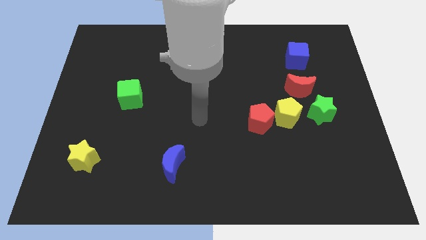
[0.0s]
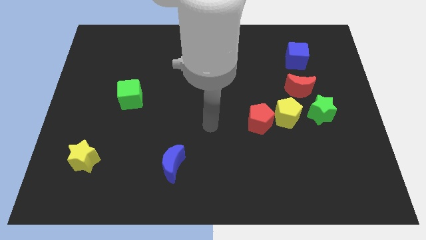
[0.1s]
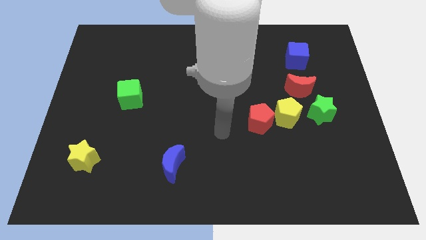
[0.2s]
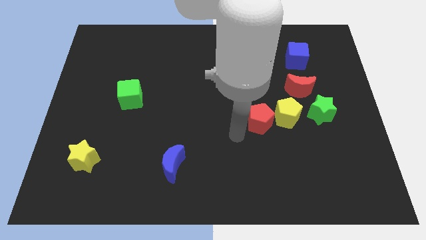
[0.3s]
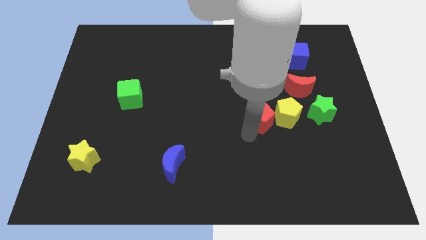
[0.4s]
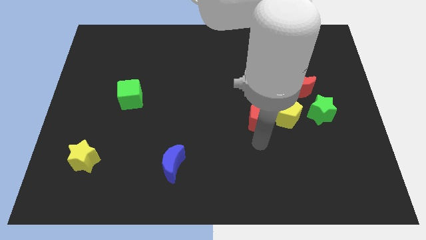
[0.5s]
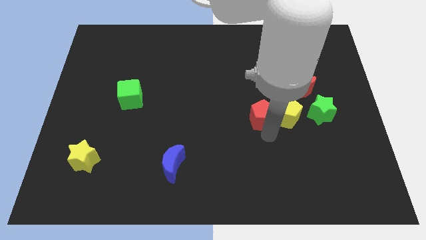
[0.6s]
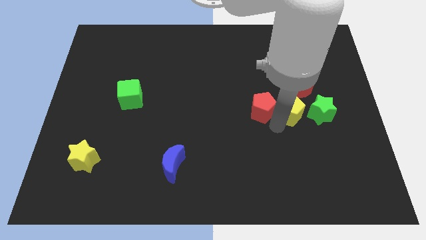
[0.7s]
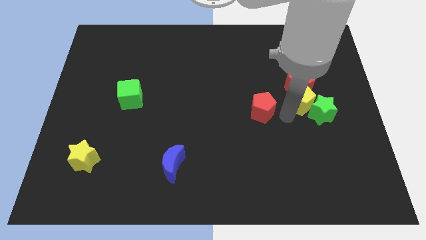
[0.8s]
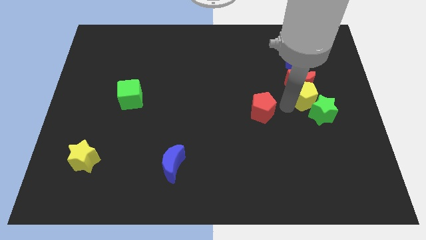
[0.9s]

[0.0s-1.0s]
move the red pentagon away from the yellow pentagon

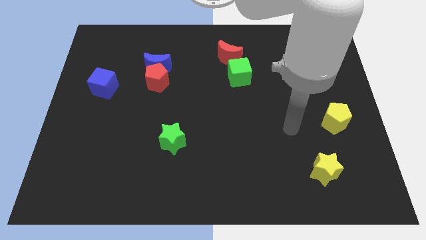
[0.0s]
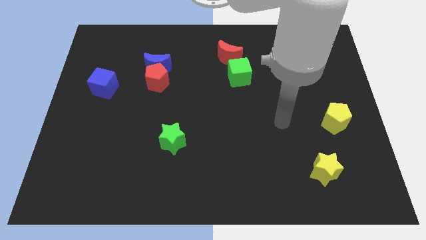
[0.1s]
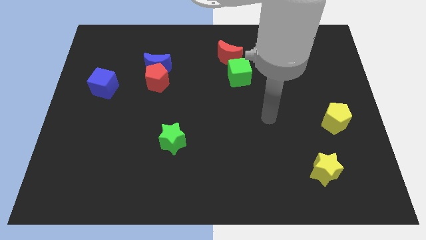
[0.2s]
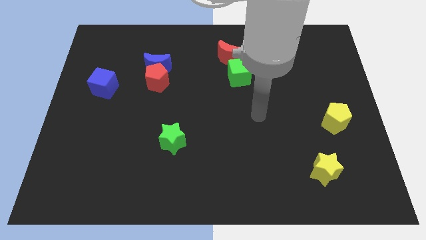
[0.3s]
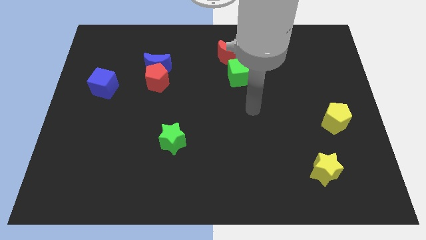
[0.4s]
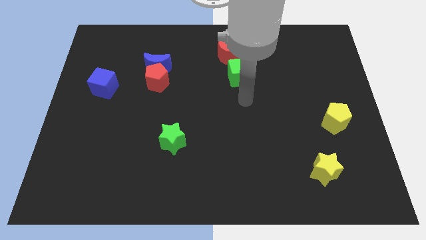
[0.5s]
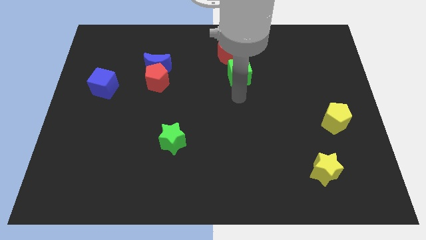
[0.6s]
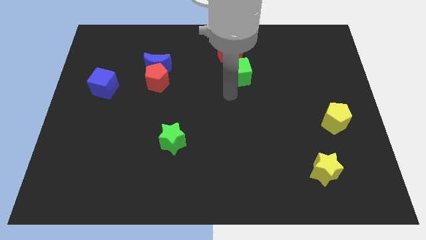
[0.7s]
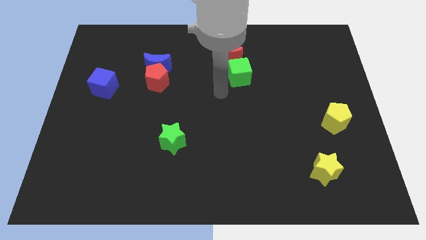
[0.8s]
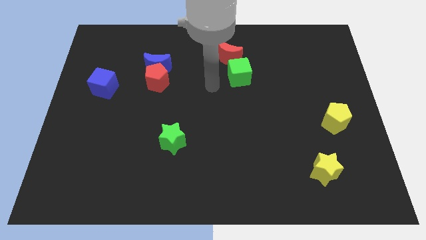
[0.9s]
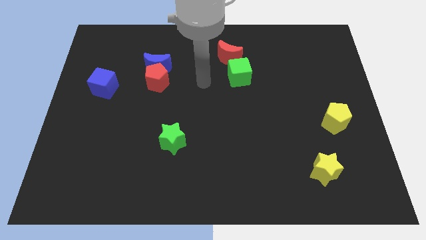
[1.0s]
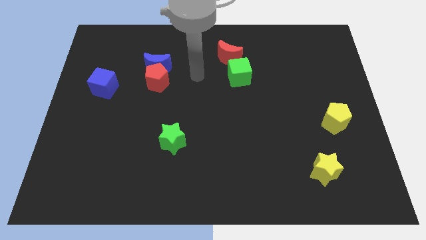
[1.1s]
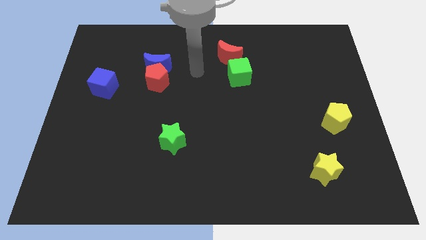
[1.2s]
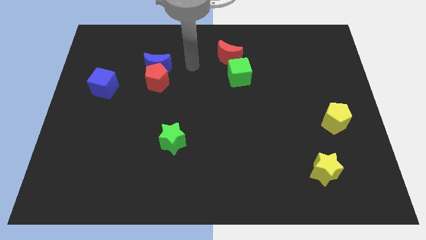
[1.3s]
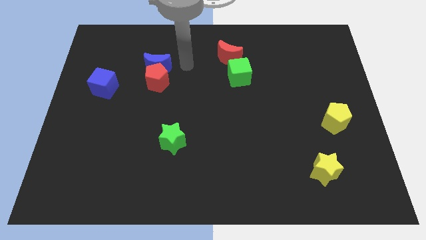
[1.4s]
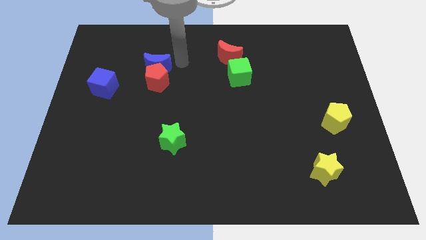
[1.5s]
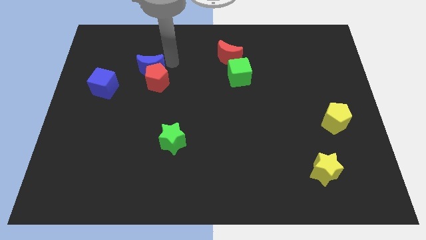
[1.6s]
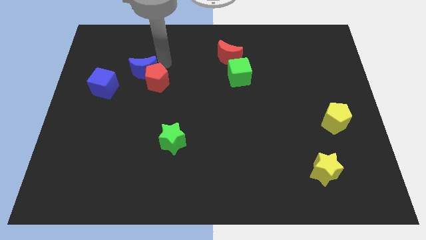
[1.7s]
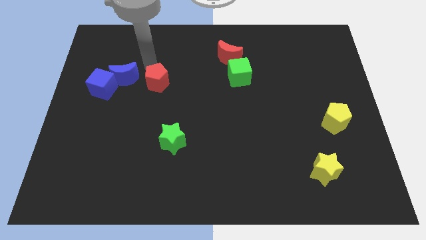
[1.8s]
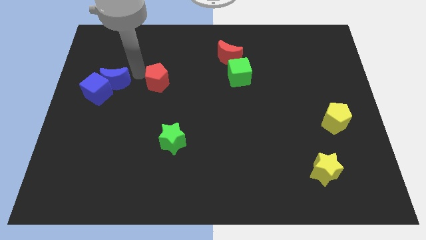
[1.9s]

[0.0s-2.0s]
pull the red pentagon apart from the blue moon

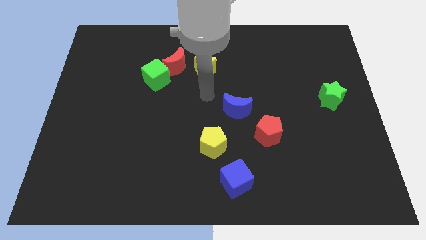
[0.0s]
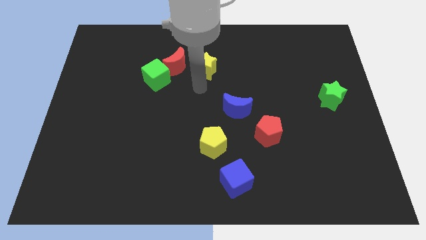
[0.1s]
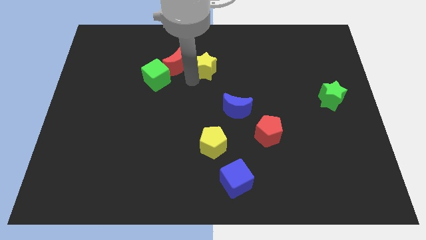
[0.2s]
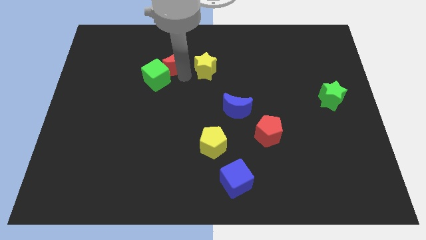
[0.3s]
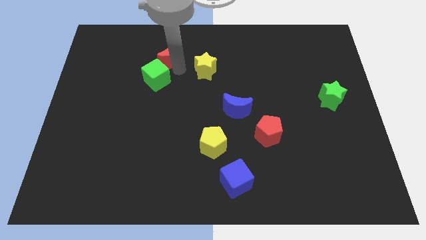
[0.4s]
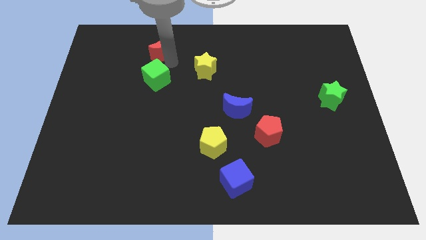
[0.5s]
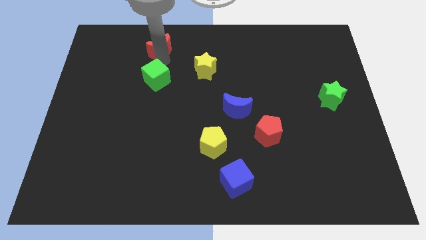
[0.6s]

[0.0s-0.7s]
separate the green cube from the red moon

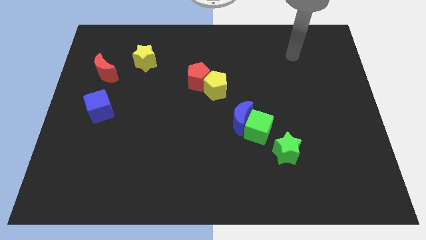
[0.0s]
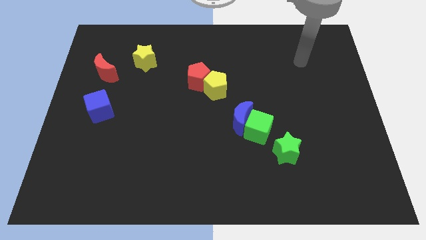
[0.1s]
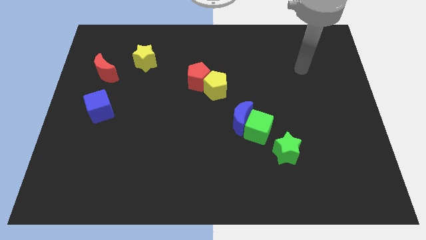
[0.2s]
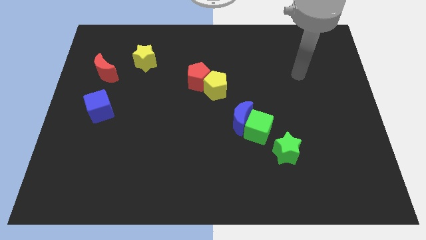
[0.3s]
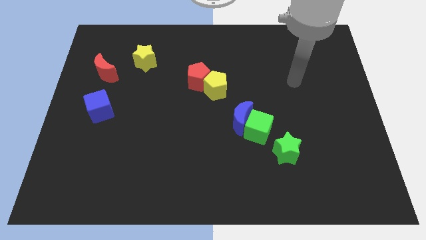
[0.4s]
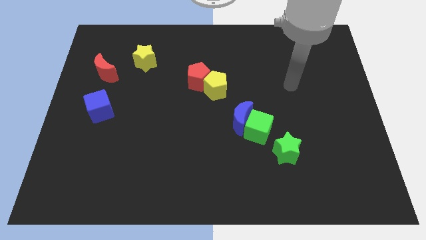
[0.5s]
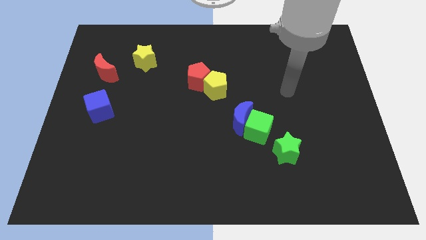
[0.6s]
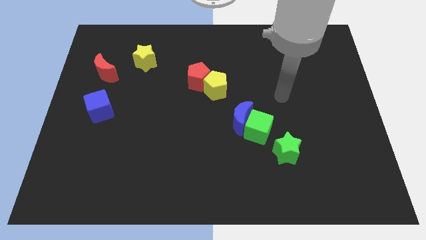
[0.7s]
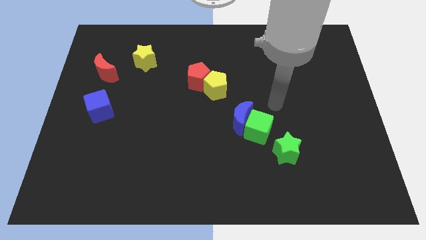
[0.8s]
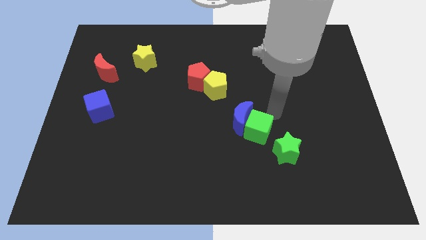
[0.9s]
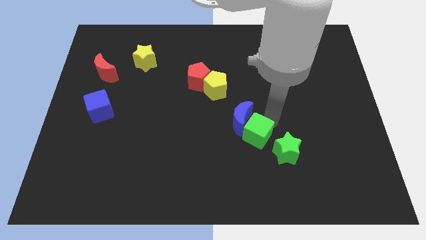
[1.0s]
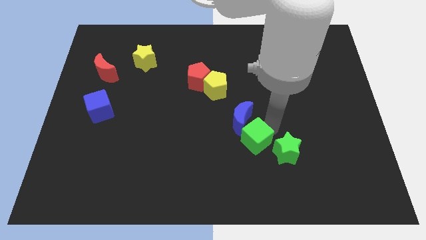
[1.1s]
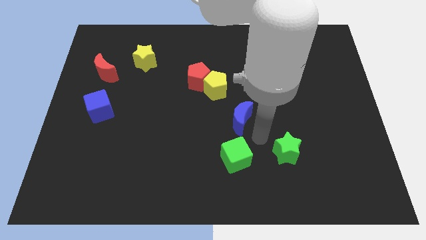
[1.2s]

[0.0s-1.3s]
separate the blue moon from the green cube

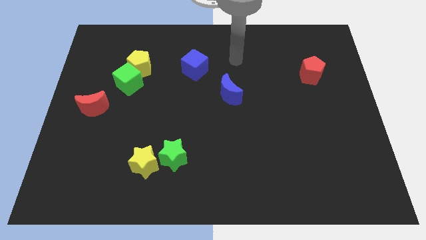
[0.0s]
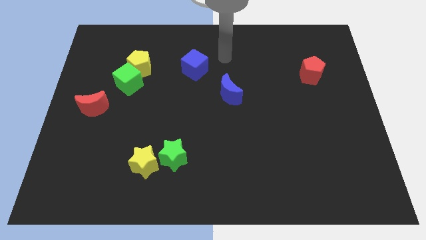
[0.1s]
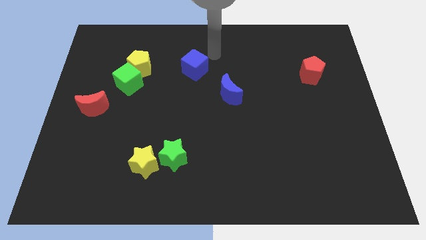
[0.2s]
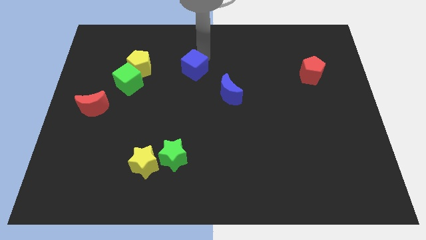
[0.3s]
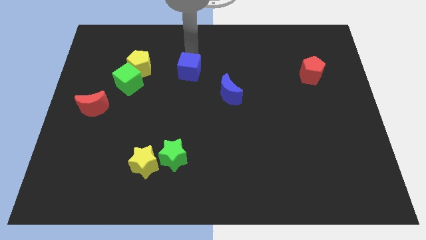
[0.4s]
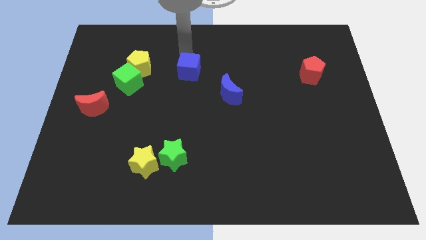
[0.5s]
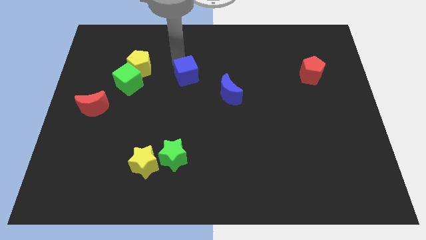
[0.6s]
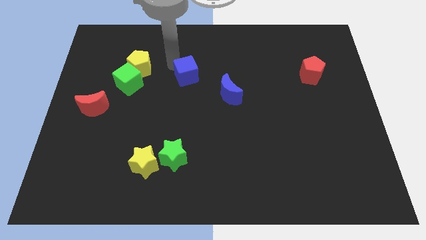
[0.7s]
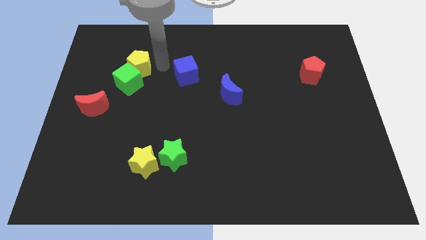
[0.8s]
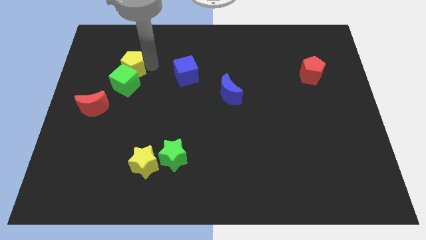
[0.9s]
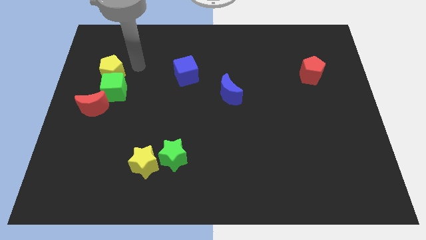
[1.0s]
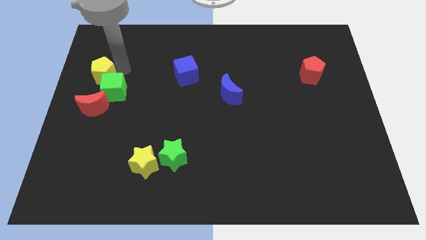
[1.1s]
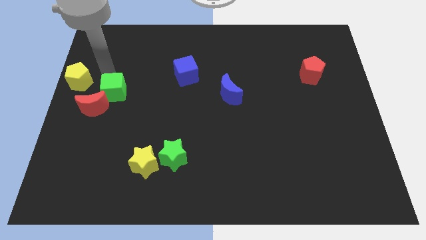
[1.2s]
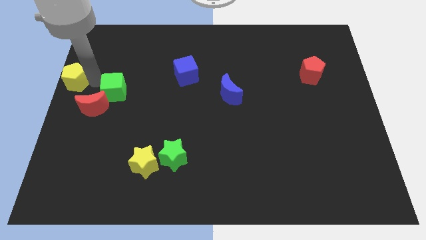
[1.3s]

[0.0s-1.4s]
separate the green cube from the yellow pentagon

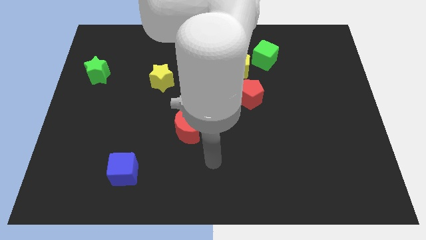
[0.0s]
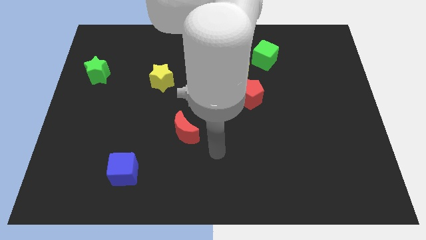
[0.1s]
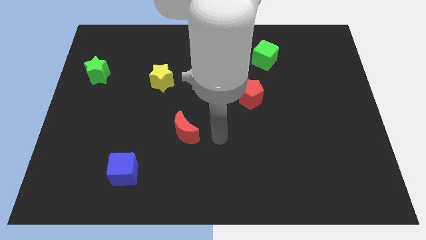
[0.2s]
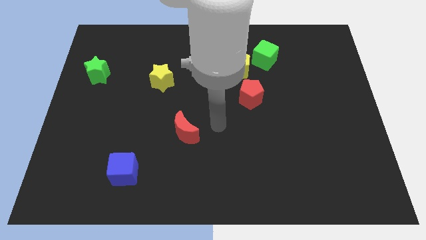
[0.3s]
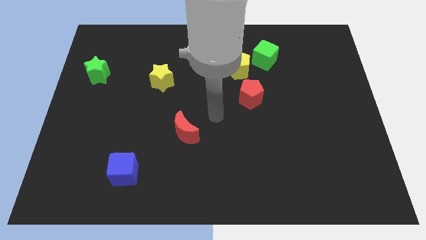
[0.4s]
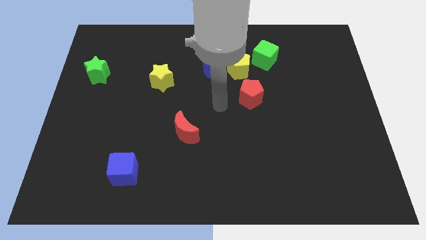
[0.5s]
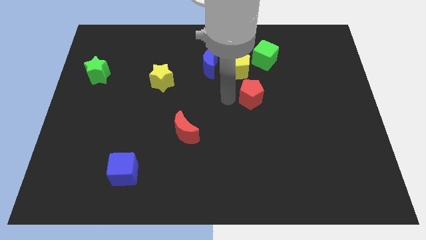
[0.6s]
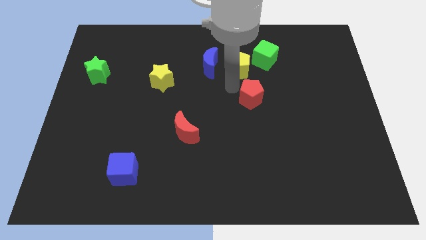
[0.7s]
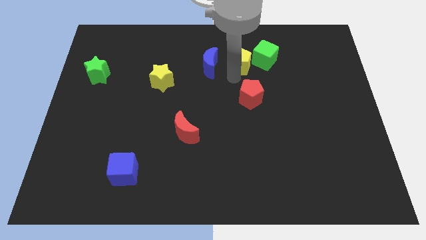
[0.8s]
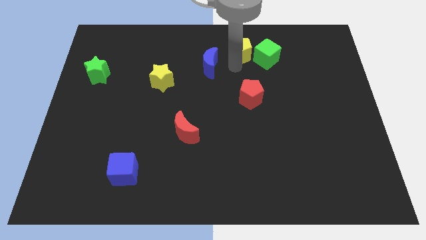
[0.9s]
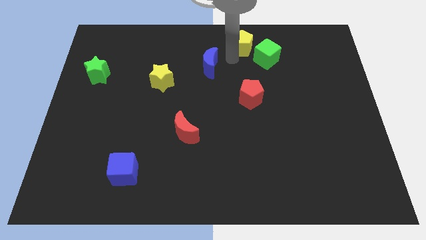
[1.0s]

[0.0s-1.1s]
pull the blue moon apart from the yellow pentagon

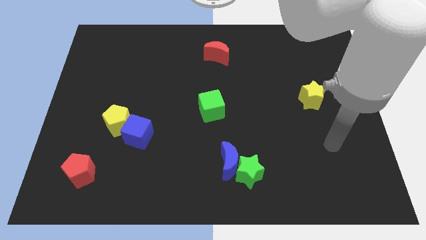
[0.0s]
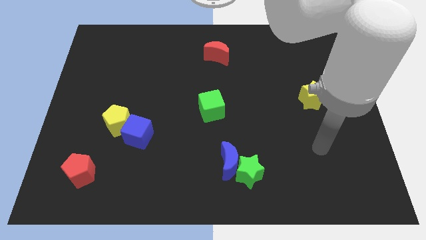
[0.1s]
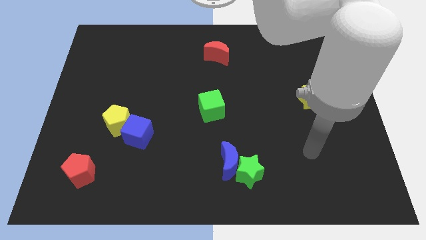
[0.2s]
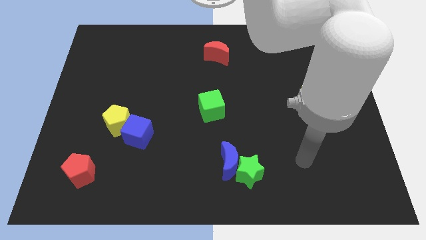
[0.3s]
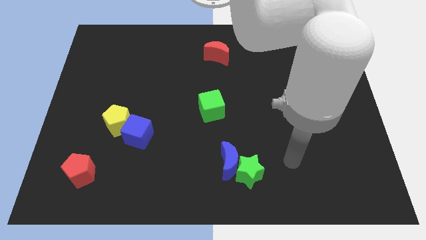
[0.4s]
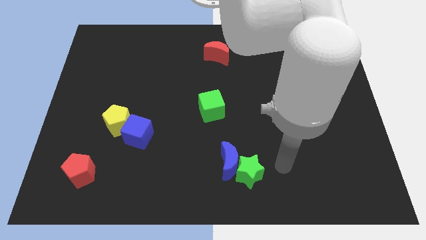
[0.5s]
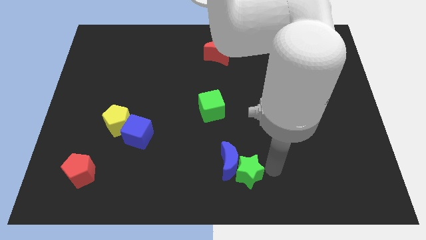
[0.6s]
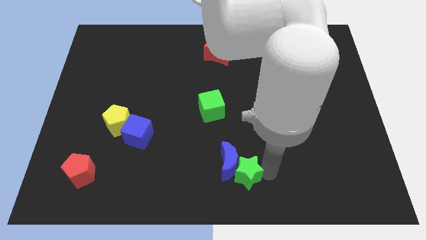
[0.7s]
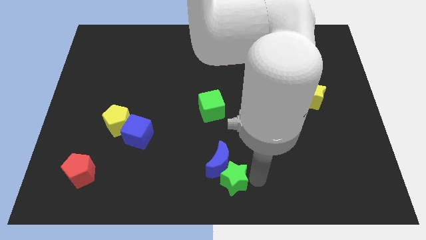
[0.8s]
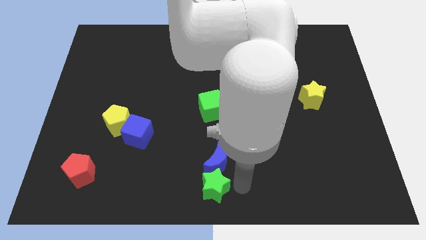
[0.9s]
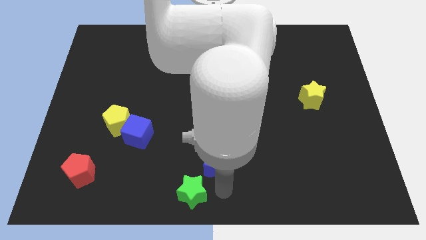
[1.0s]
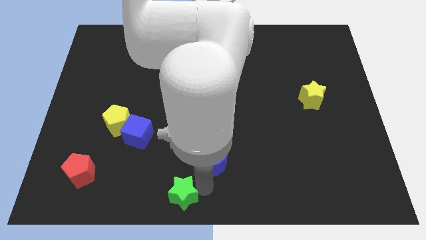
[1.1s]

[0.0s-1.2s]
move the blue moon away from the green star

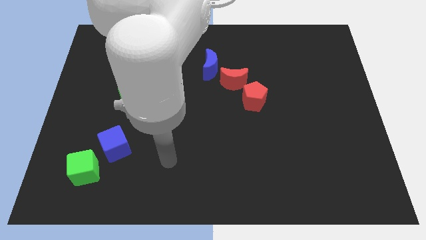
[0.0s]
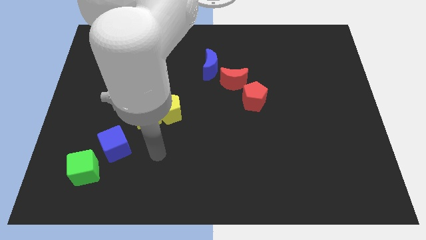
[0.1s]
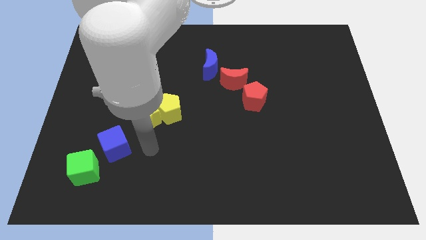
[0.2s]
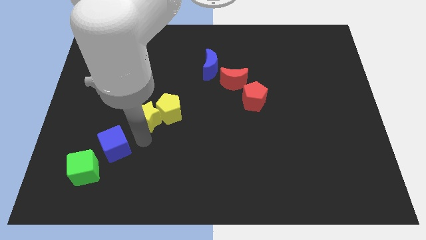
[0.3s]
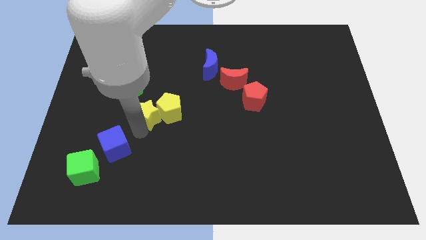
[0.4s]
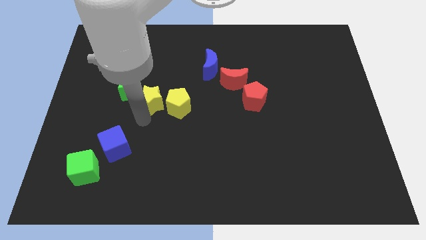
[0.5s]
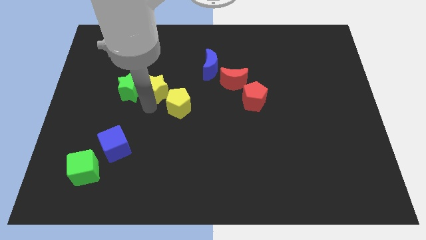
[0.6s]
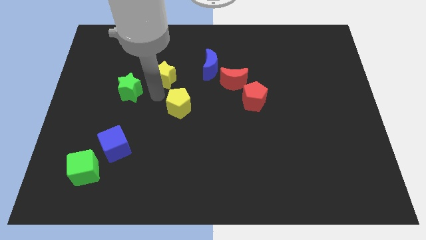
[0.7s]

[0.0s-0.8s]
separate the yellow pentagon from the yellow star
